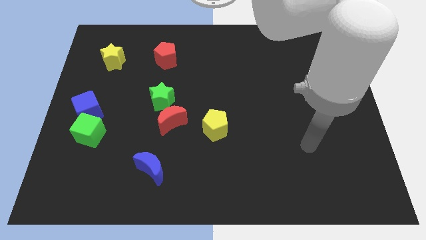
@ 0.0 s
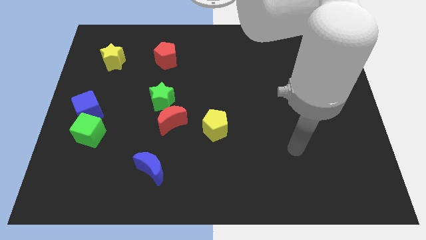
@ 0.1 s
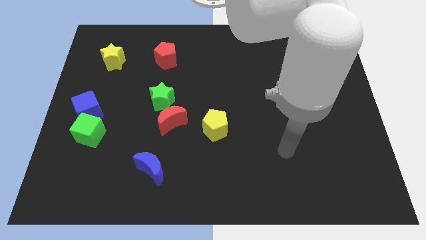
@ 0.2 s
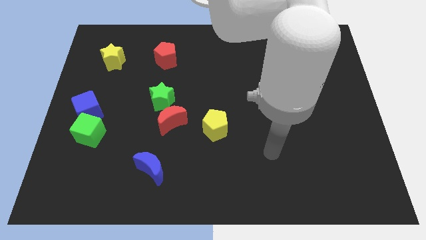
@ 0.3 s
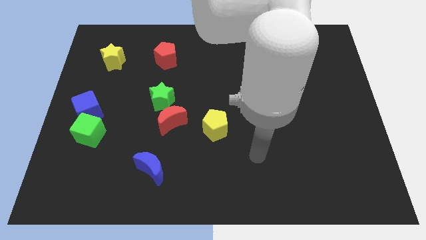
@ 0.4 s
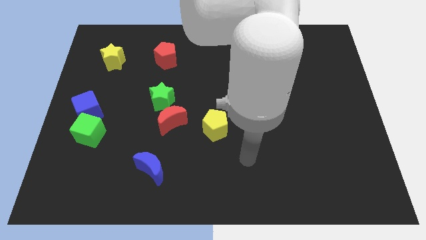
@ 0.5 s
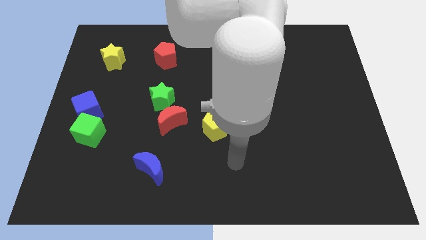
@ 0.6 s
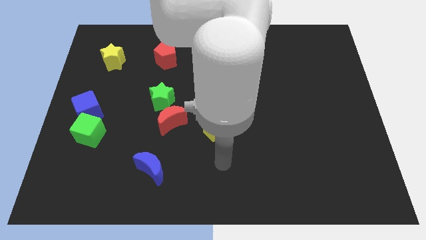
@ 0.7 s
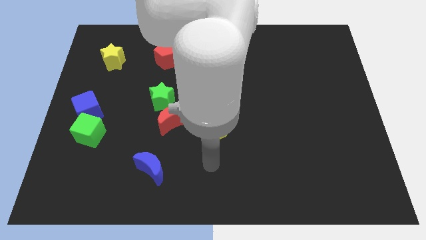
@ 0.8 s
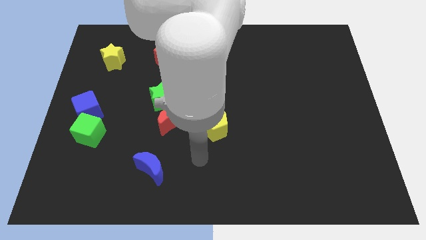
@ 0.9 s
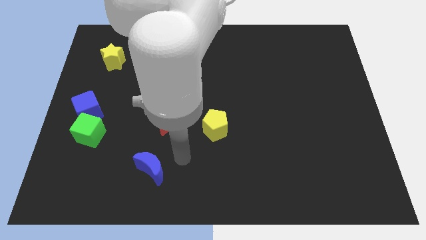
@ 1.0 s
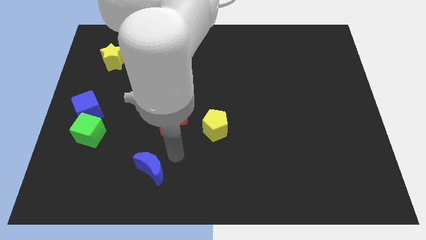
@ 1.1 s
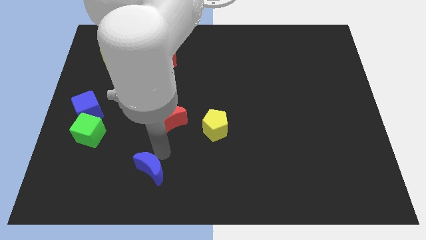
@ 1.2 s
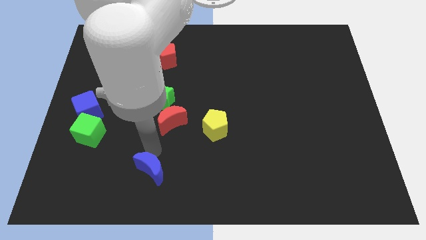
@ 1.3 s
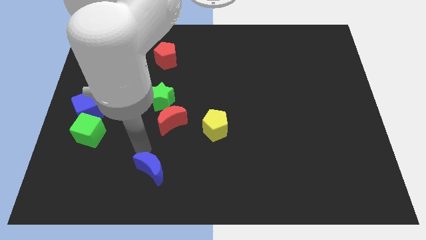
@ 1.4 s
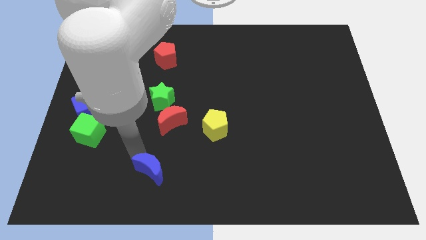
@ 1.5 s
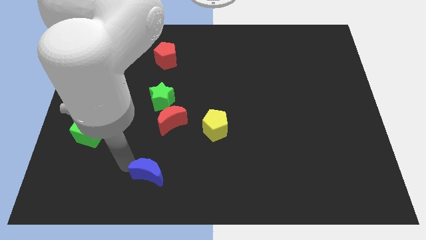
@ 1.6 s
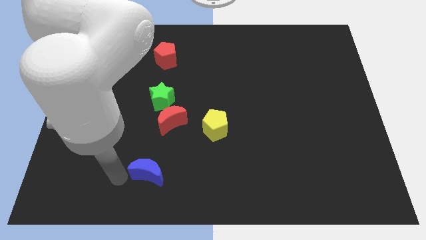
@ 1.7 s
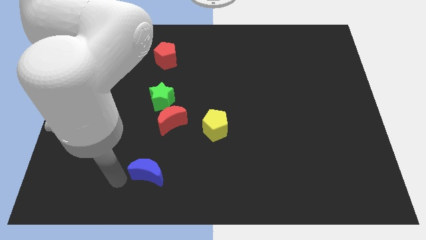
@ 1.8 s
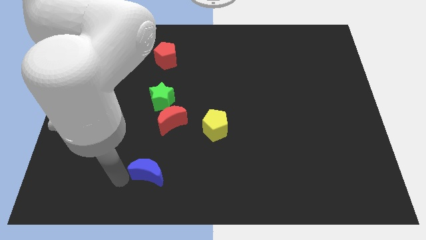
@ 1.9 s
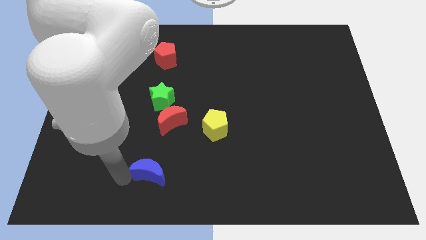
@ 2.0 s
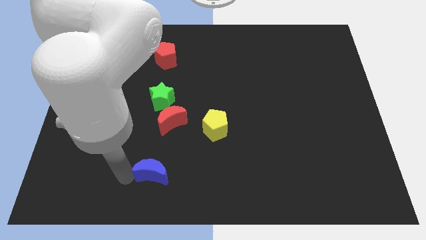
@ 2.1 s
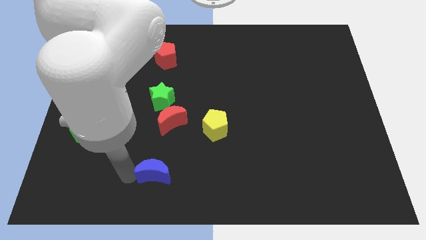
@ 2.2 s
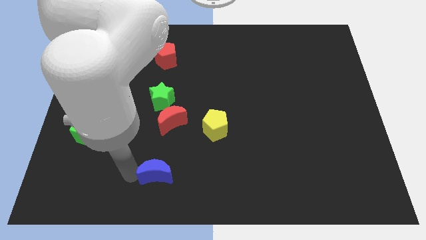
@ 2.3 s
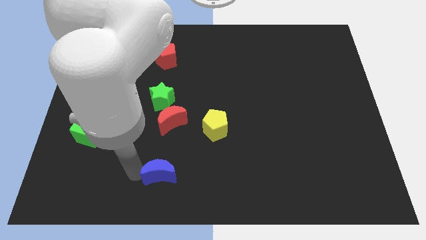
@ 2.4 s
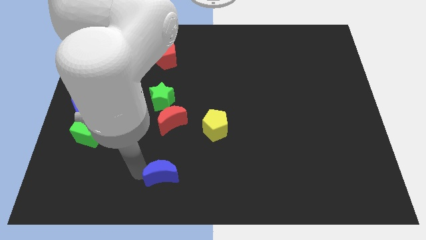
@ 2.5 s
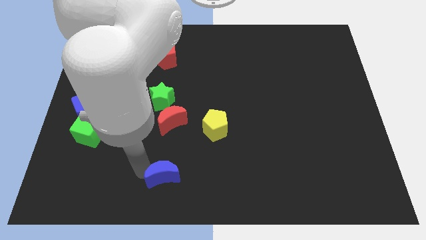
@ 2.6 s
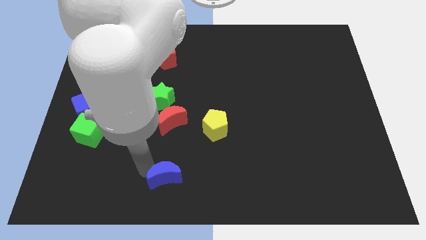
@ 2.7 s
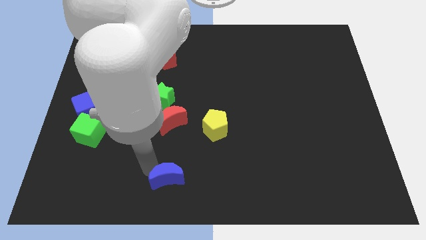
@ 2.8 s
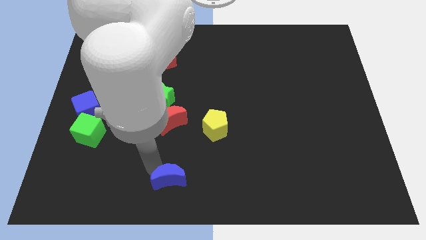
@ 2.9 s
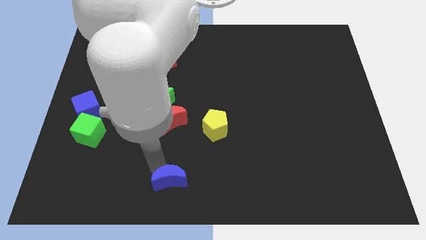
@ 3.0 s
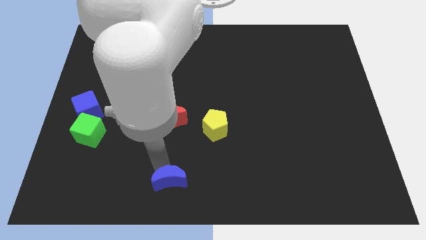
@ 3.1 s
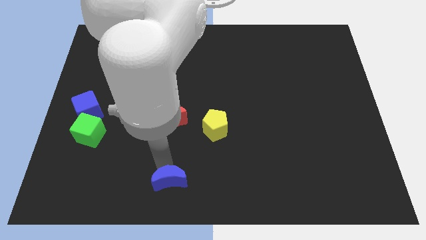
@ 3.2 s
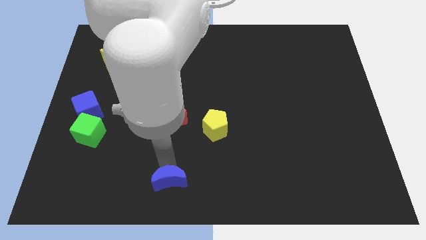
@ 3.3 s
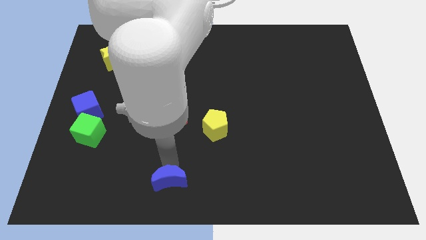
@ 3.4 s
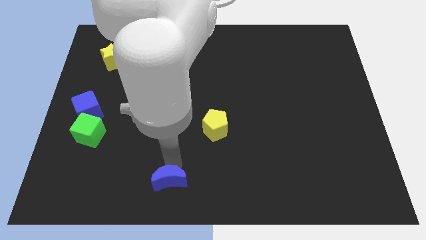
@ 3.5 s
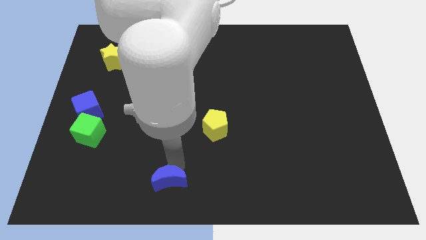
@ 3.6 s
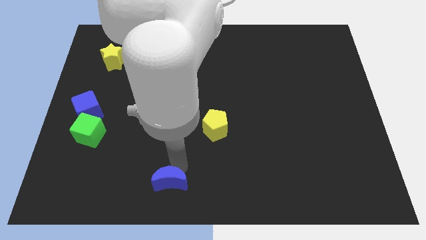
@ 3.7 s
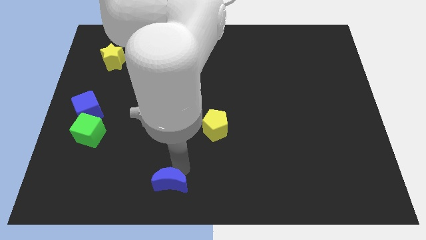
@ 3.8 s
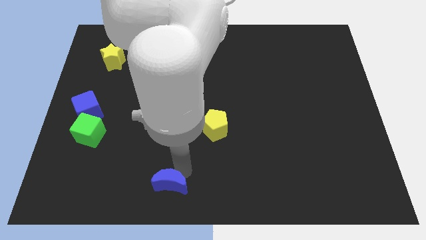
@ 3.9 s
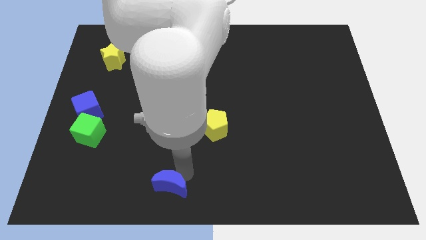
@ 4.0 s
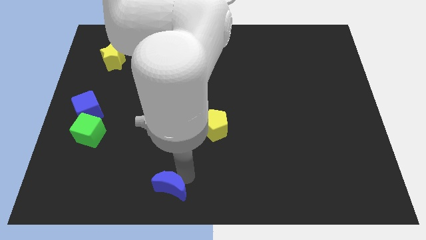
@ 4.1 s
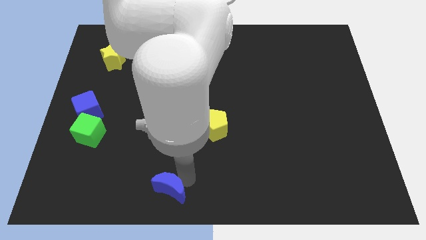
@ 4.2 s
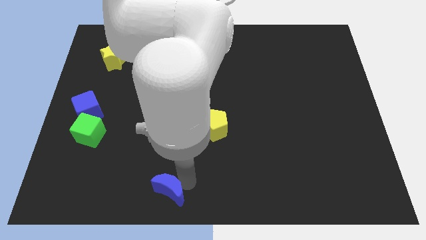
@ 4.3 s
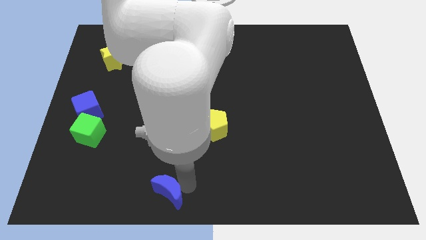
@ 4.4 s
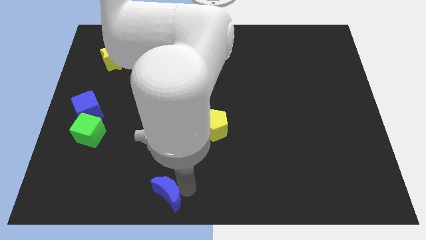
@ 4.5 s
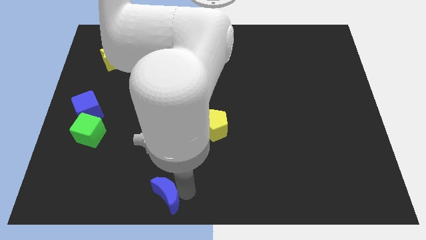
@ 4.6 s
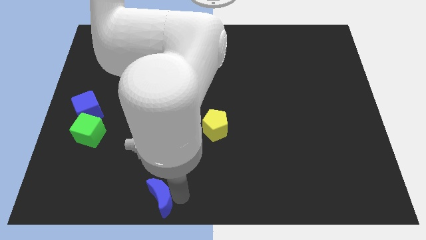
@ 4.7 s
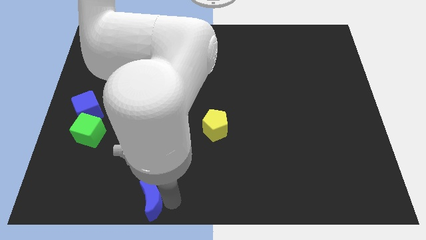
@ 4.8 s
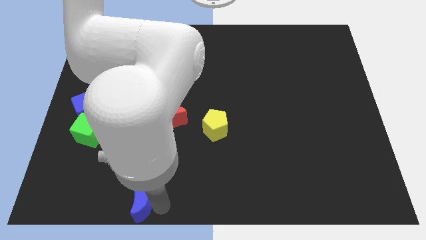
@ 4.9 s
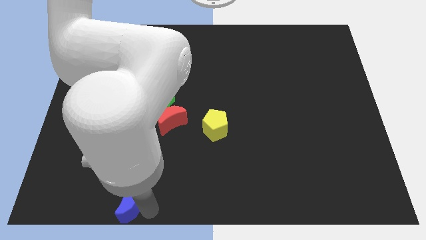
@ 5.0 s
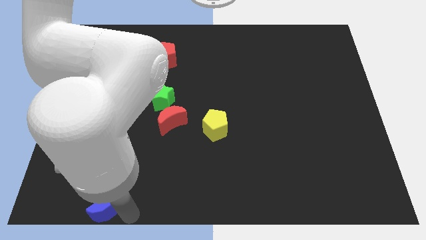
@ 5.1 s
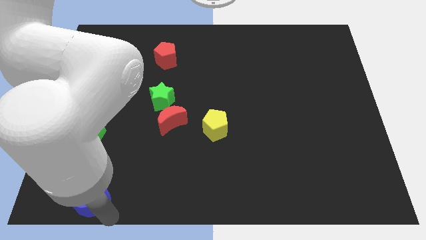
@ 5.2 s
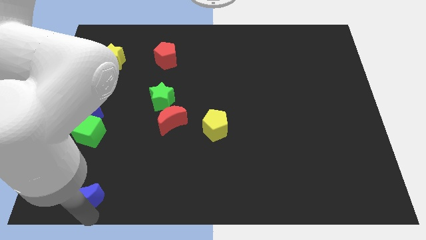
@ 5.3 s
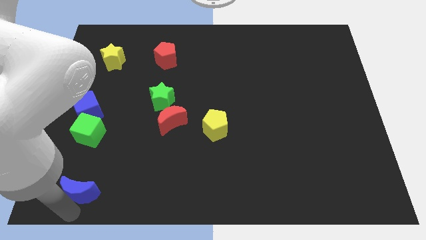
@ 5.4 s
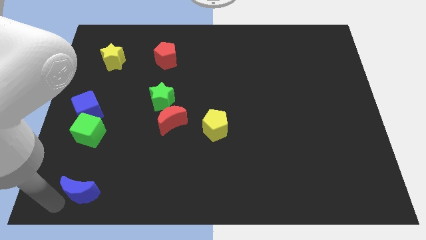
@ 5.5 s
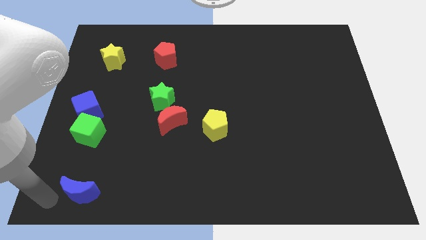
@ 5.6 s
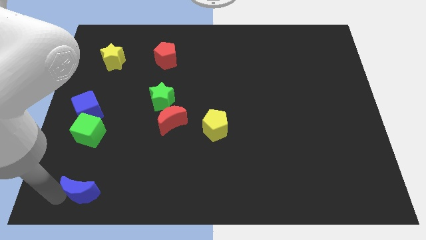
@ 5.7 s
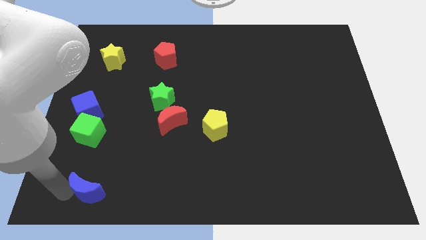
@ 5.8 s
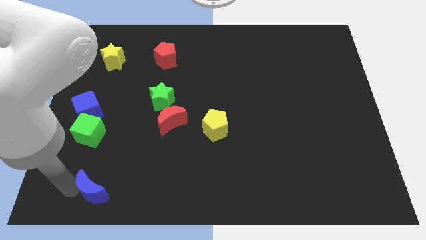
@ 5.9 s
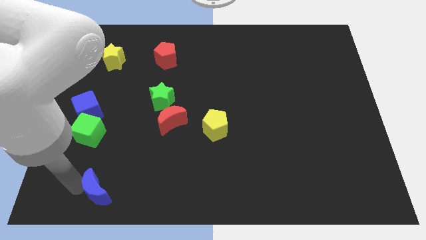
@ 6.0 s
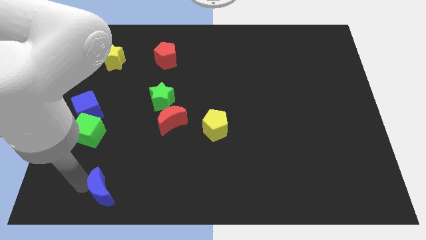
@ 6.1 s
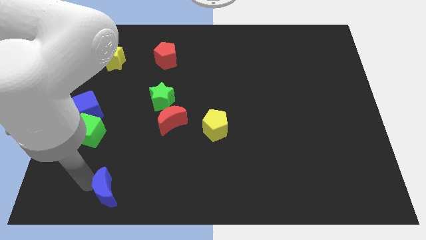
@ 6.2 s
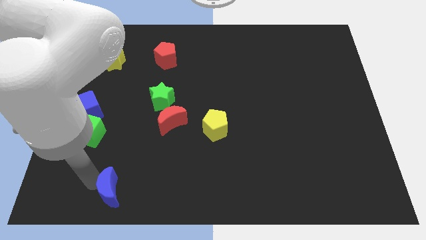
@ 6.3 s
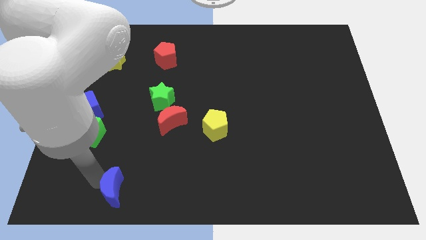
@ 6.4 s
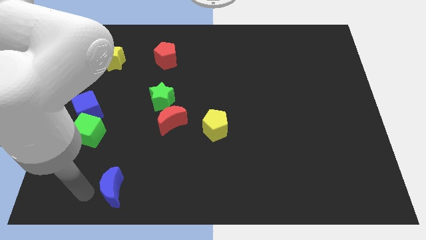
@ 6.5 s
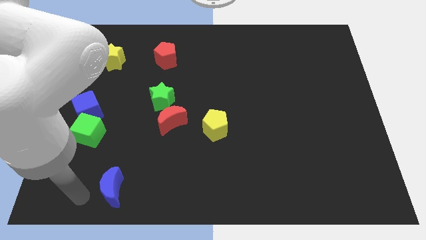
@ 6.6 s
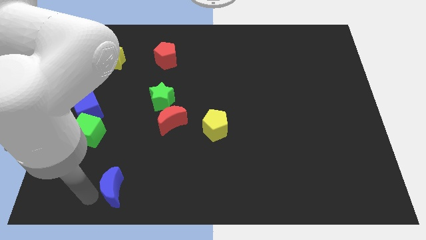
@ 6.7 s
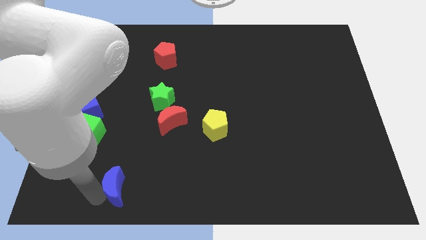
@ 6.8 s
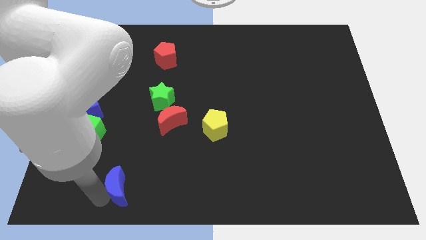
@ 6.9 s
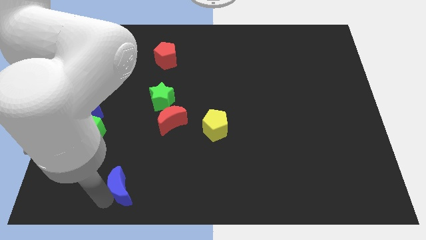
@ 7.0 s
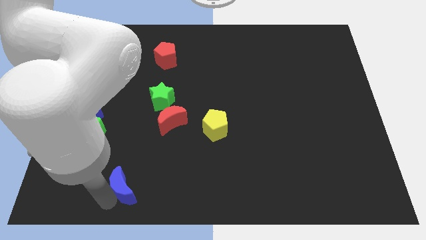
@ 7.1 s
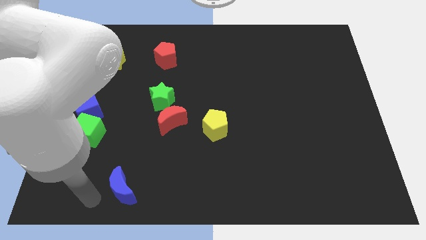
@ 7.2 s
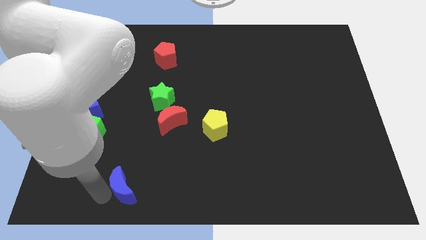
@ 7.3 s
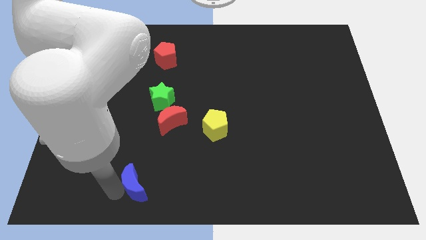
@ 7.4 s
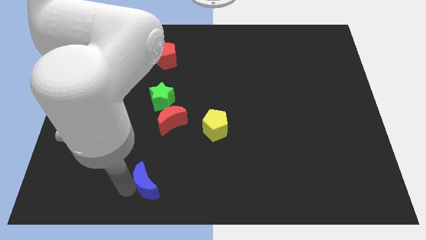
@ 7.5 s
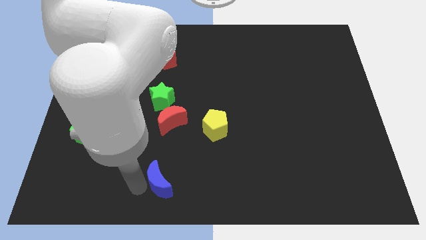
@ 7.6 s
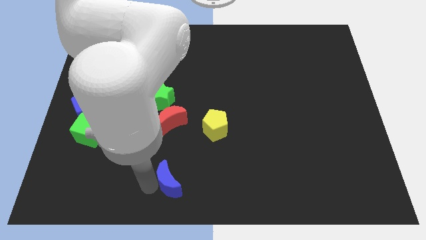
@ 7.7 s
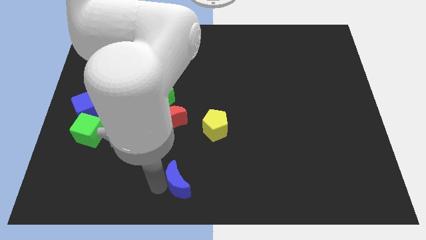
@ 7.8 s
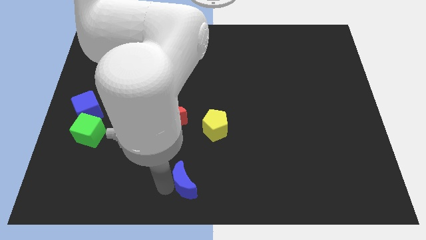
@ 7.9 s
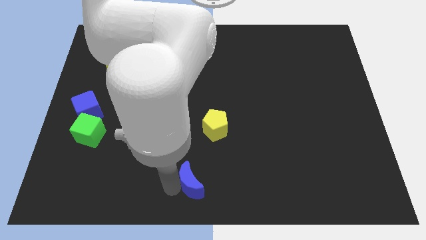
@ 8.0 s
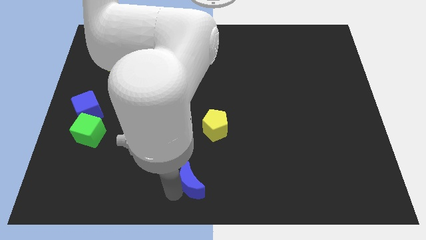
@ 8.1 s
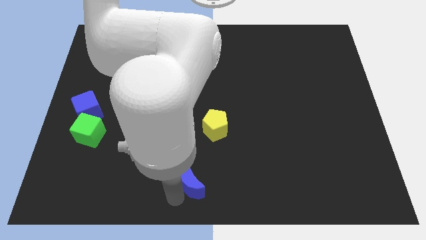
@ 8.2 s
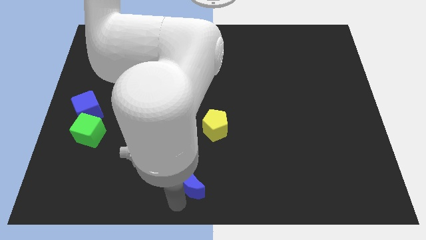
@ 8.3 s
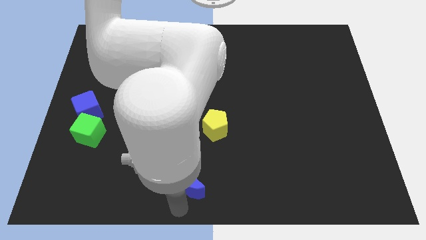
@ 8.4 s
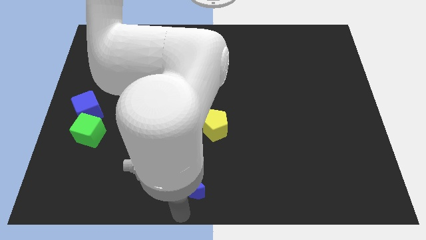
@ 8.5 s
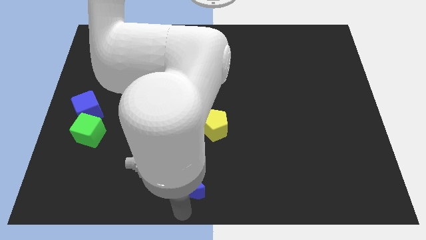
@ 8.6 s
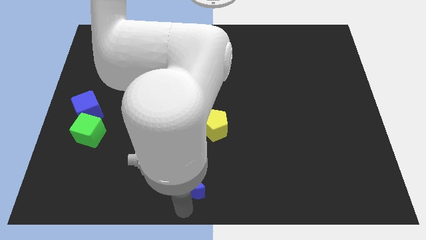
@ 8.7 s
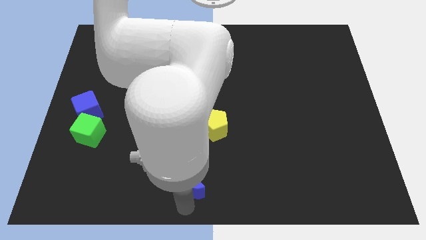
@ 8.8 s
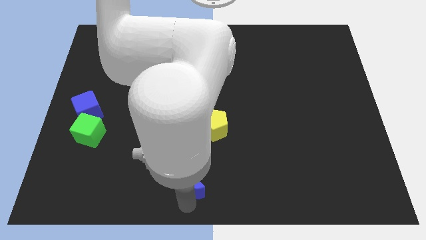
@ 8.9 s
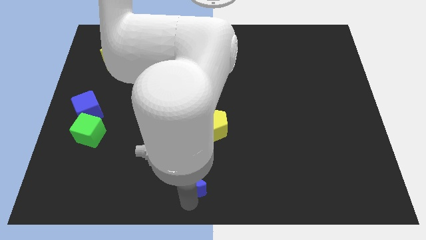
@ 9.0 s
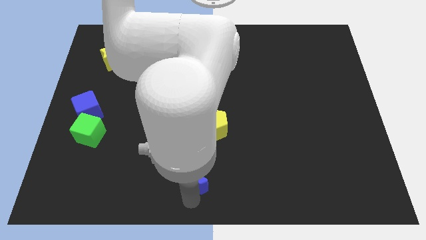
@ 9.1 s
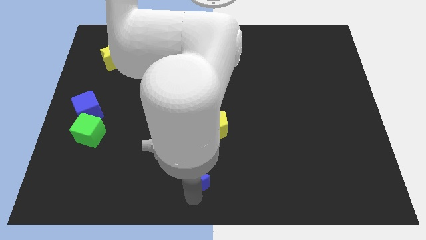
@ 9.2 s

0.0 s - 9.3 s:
push the blue moon below the yellow pentagon
